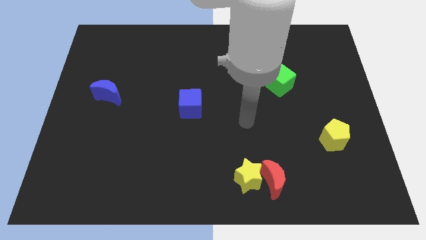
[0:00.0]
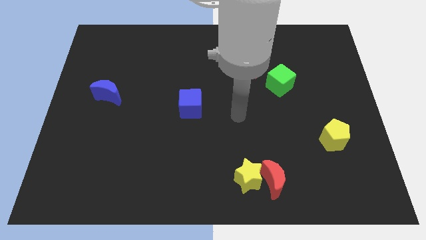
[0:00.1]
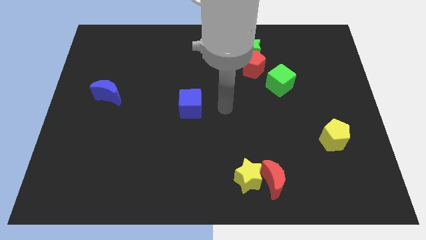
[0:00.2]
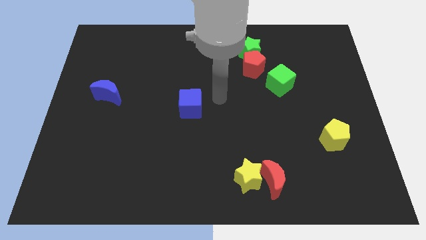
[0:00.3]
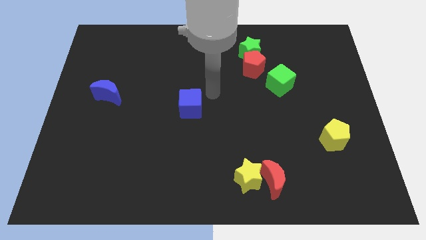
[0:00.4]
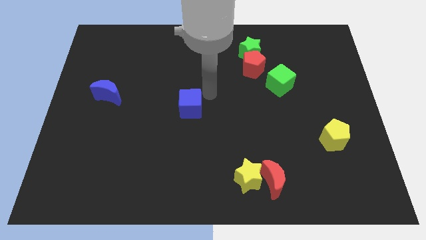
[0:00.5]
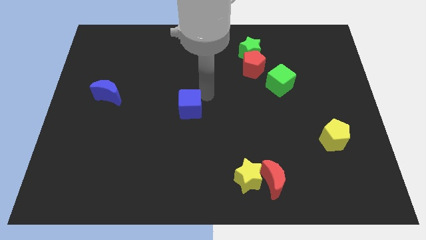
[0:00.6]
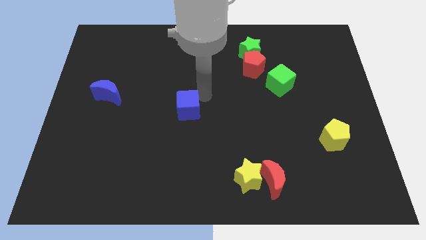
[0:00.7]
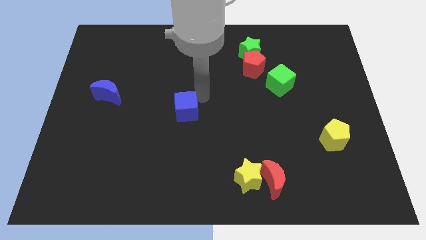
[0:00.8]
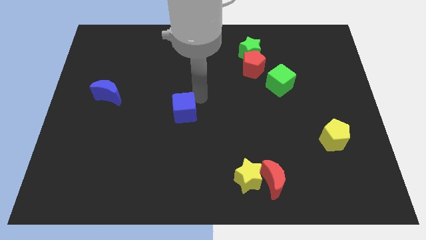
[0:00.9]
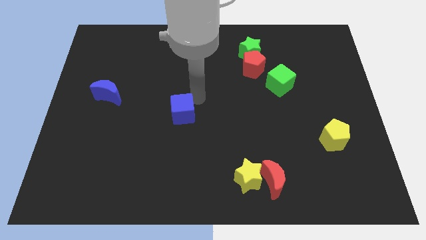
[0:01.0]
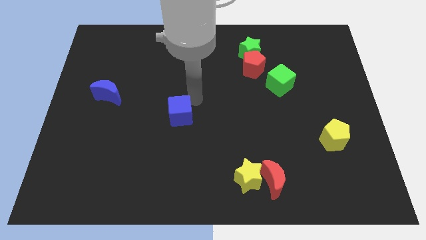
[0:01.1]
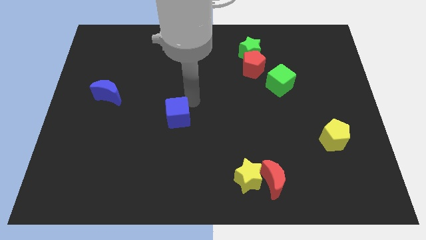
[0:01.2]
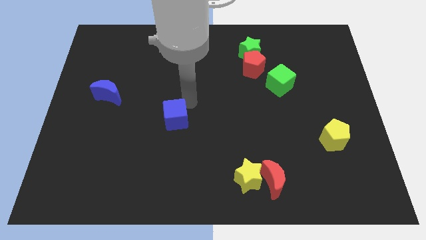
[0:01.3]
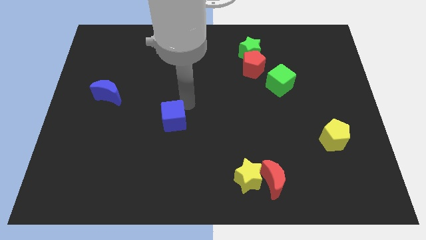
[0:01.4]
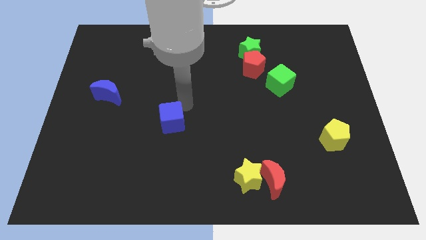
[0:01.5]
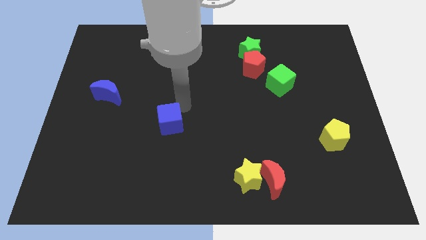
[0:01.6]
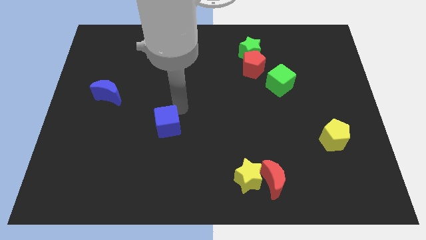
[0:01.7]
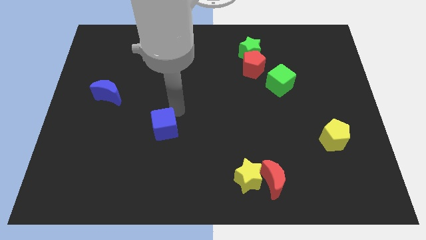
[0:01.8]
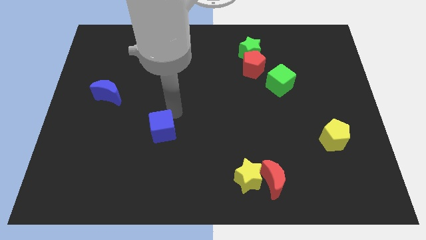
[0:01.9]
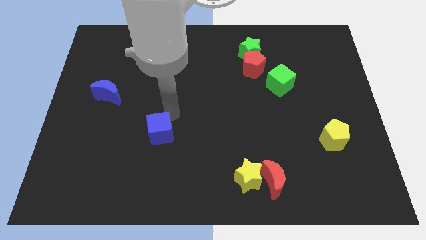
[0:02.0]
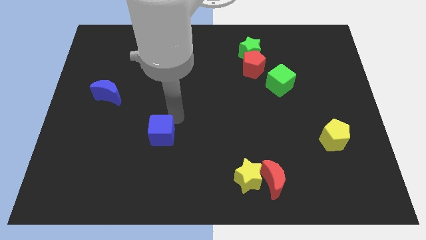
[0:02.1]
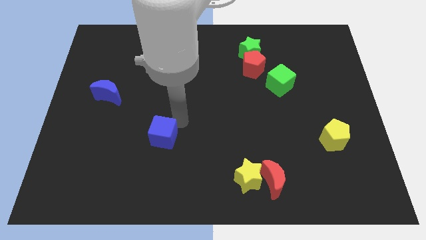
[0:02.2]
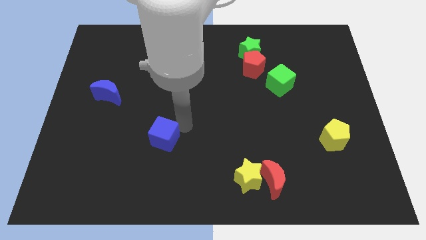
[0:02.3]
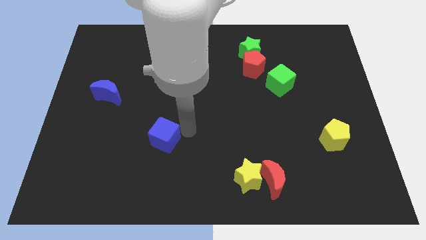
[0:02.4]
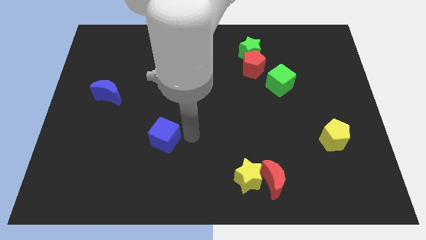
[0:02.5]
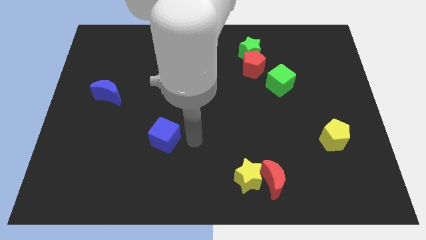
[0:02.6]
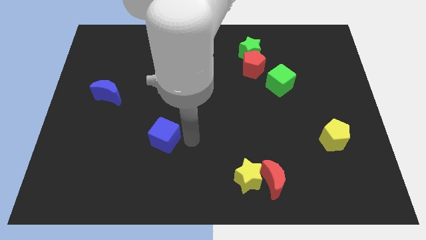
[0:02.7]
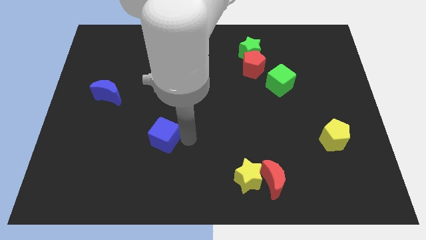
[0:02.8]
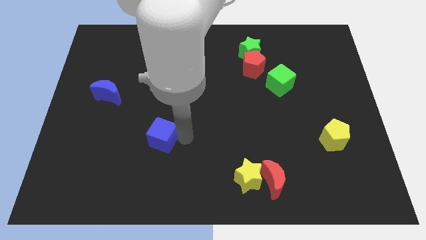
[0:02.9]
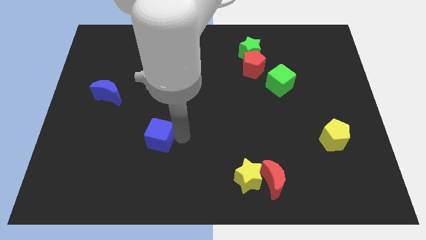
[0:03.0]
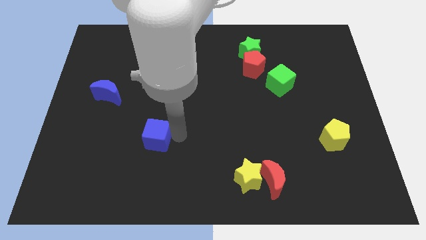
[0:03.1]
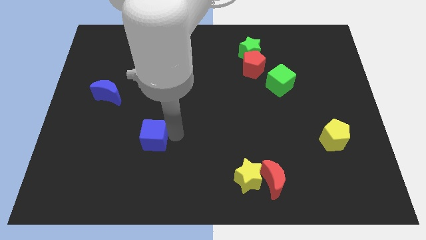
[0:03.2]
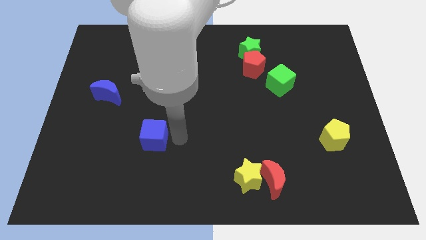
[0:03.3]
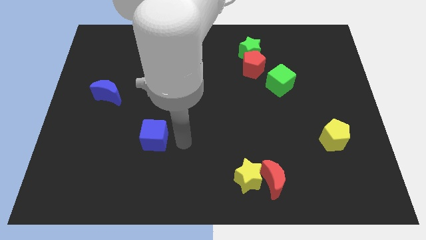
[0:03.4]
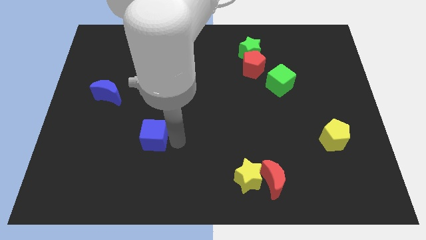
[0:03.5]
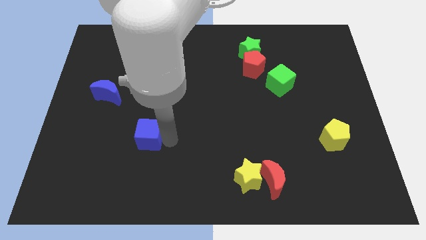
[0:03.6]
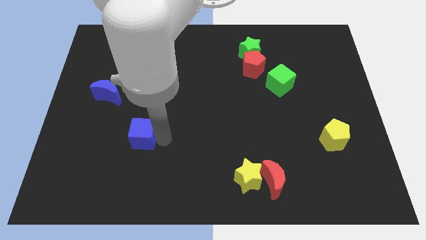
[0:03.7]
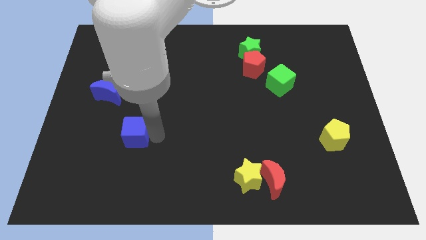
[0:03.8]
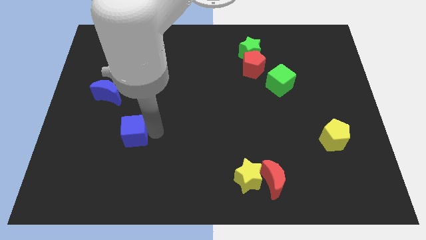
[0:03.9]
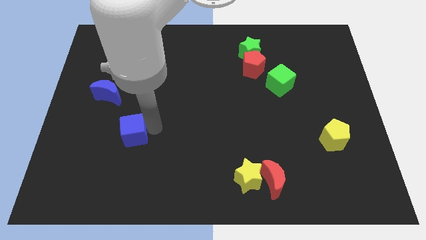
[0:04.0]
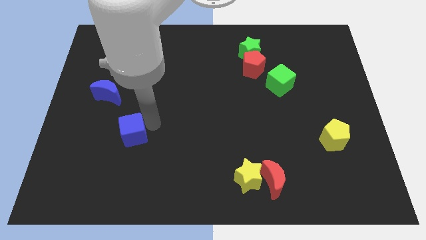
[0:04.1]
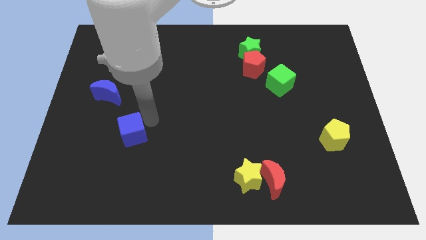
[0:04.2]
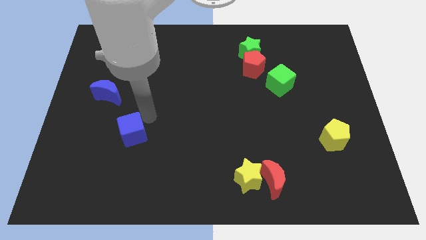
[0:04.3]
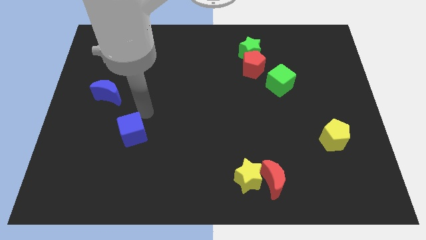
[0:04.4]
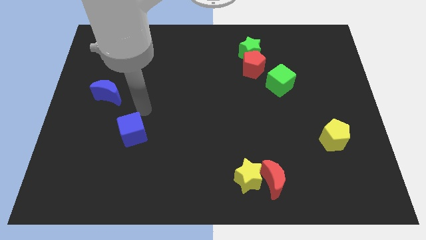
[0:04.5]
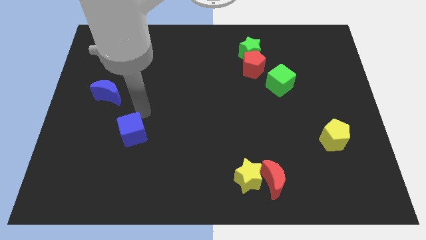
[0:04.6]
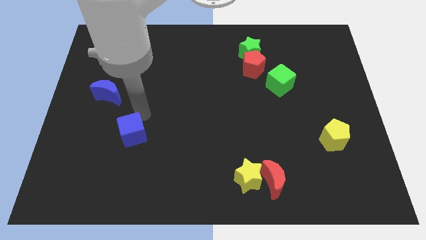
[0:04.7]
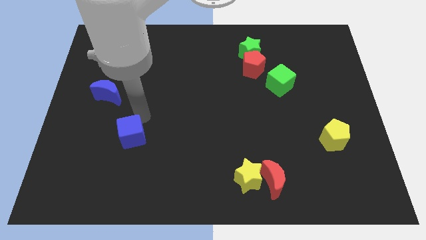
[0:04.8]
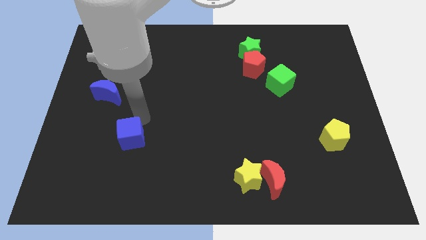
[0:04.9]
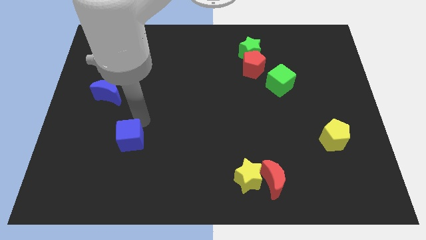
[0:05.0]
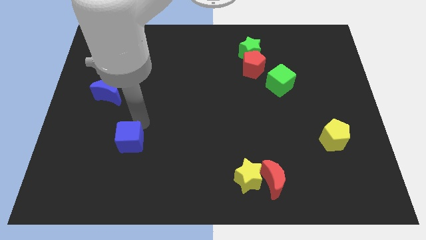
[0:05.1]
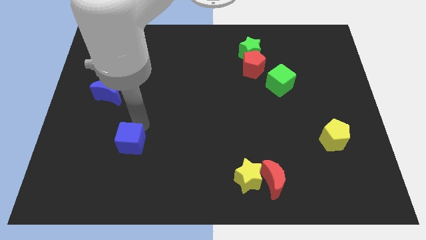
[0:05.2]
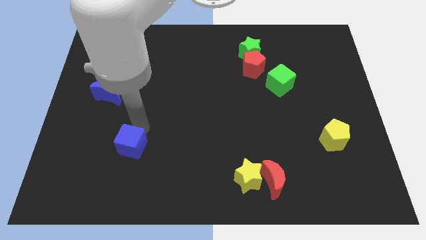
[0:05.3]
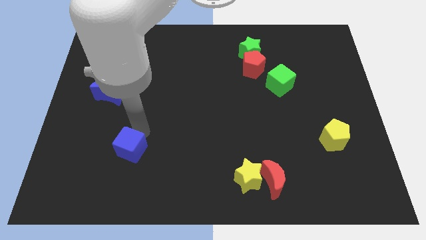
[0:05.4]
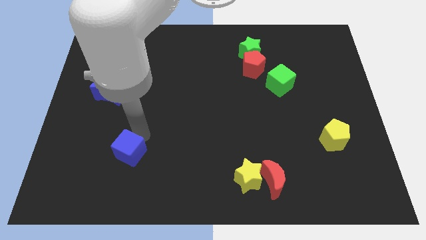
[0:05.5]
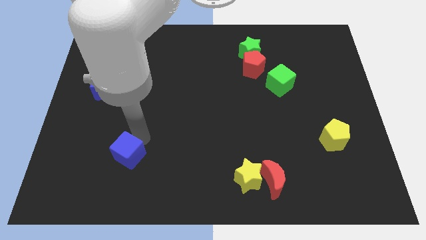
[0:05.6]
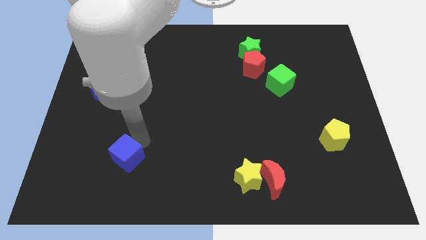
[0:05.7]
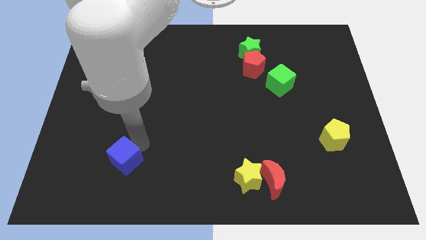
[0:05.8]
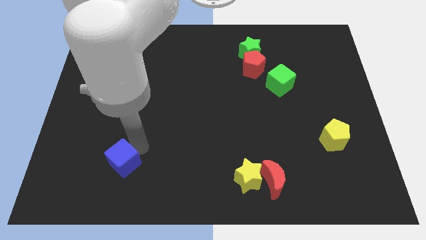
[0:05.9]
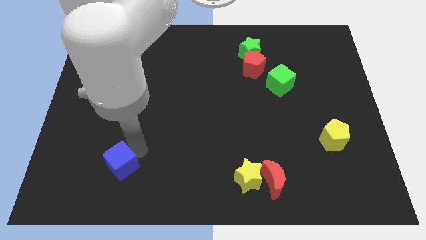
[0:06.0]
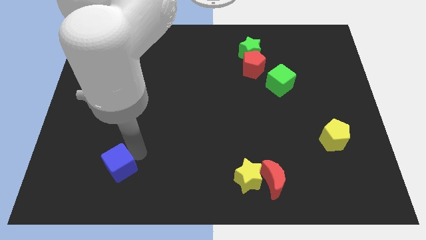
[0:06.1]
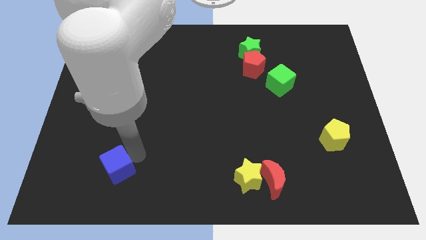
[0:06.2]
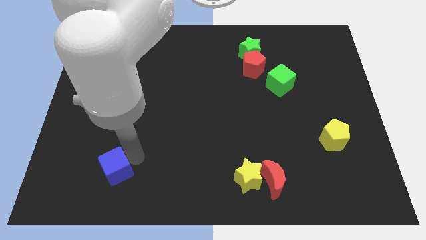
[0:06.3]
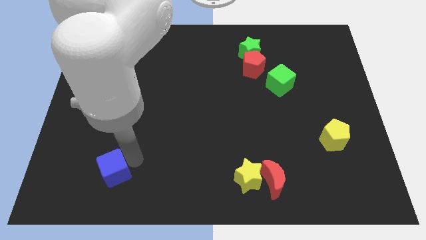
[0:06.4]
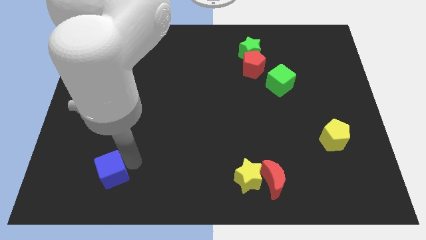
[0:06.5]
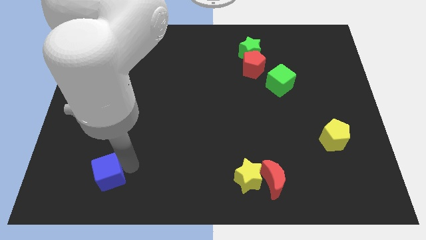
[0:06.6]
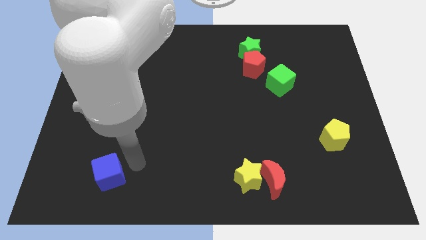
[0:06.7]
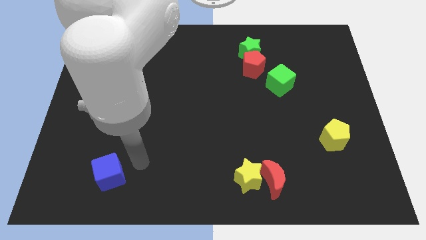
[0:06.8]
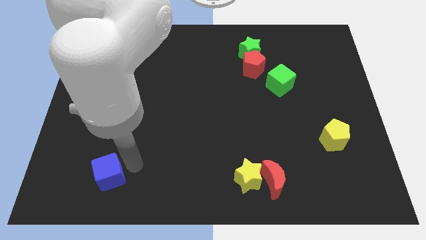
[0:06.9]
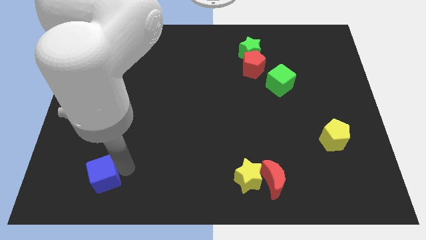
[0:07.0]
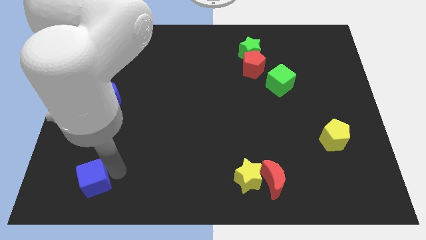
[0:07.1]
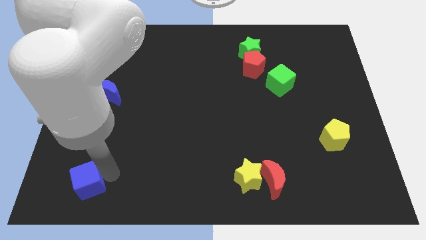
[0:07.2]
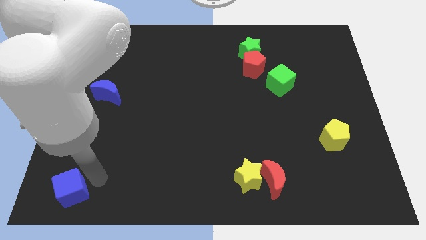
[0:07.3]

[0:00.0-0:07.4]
push the blue cube to the bottom left
